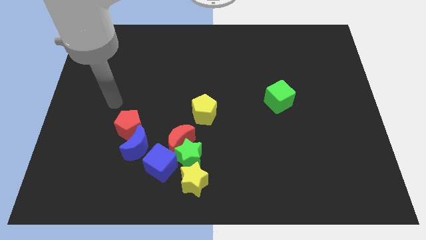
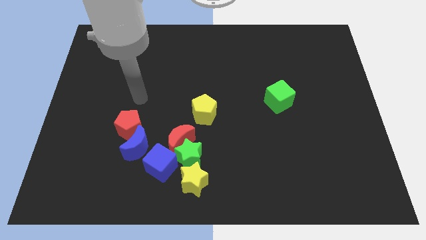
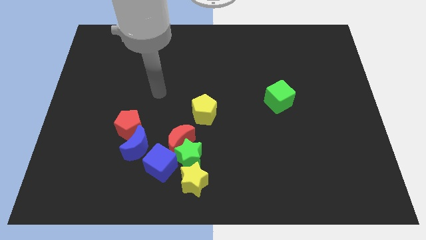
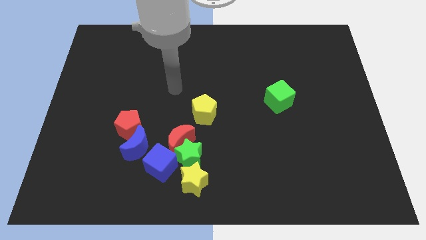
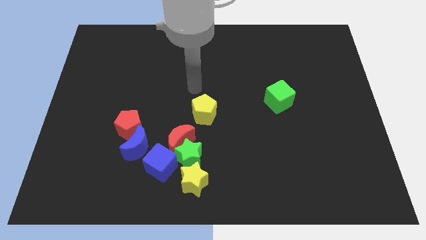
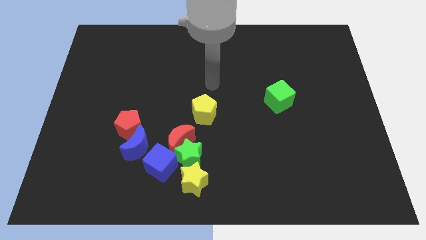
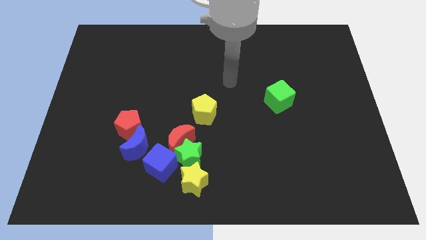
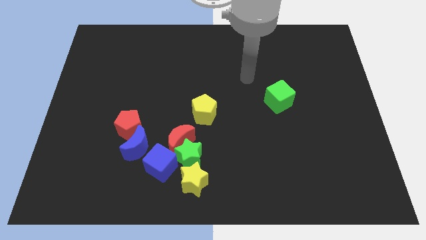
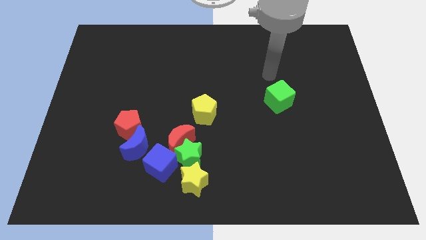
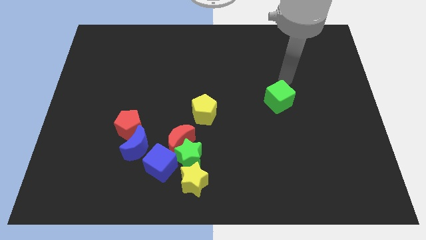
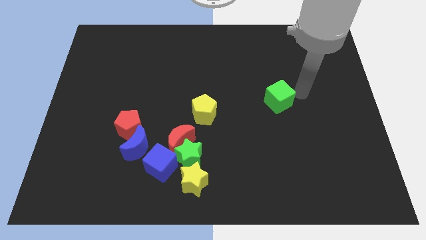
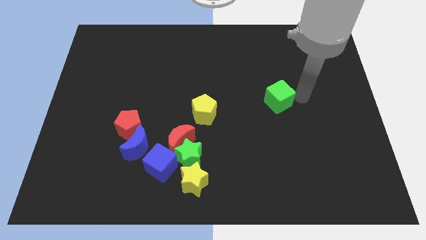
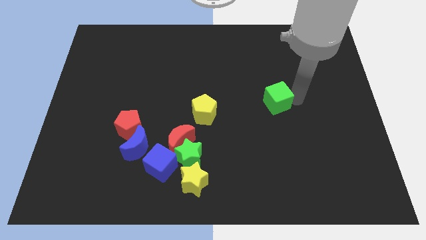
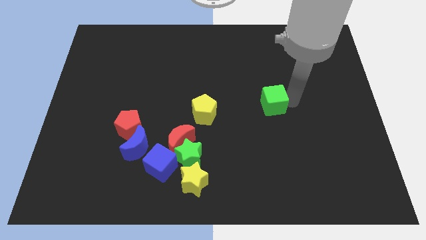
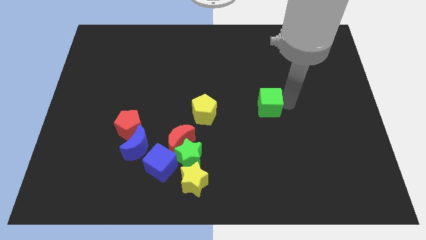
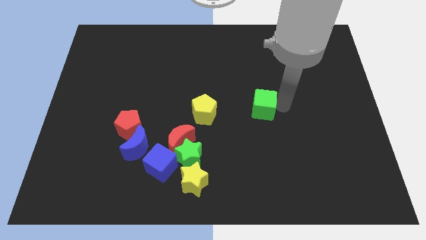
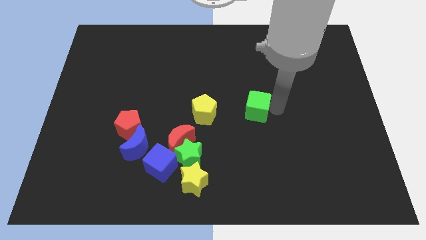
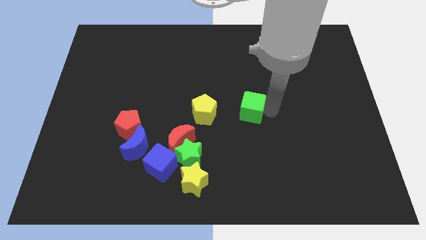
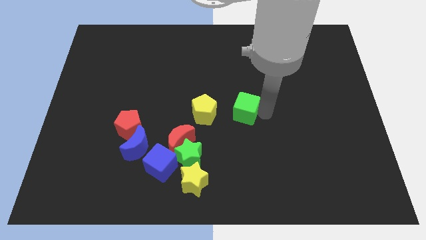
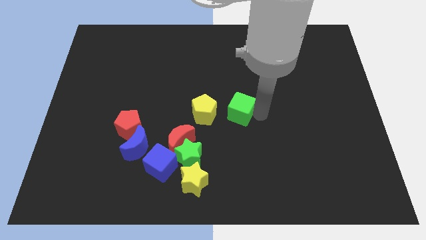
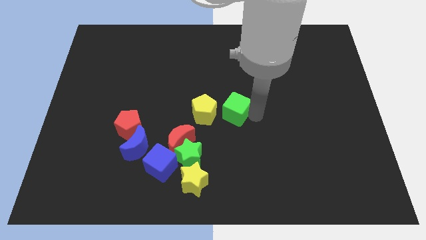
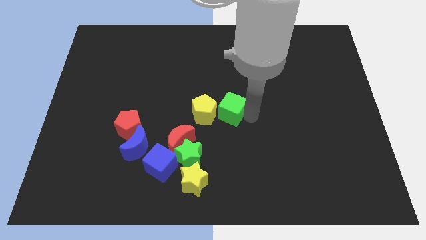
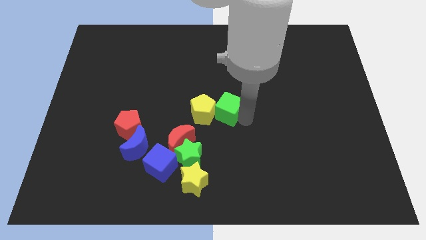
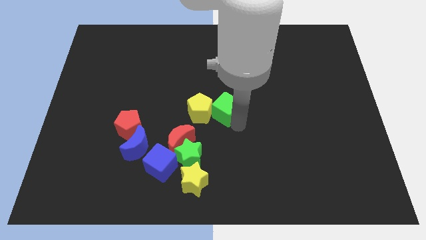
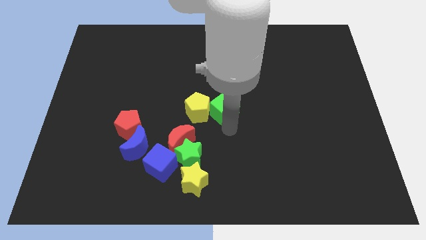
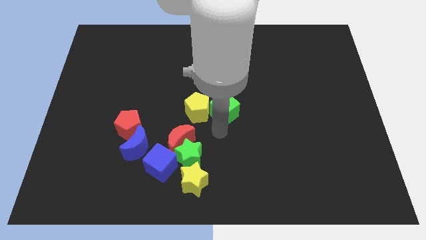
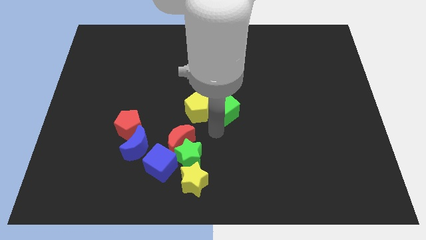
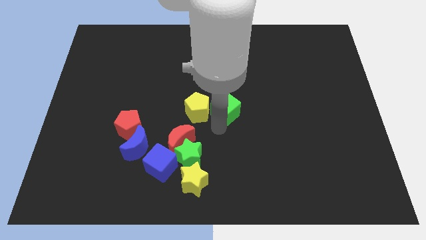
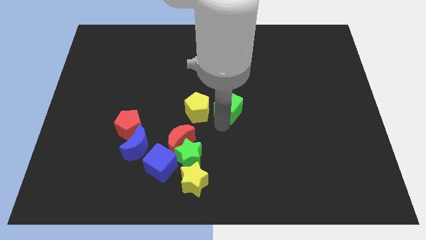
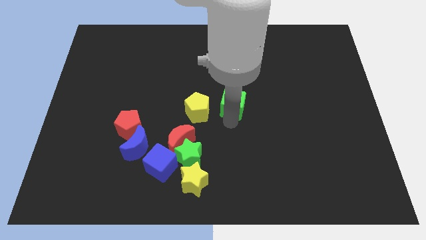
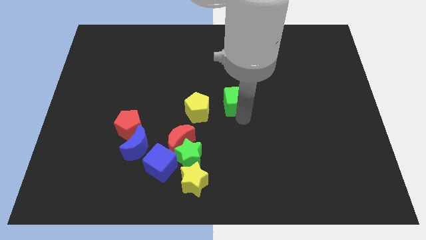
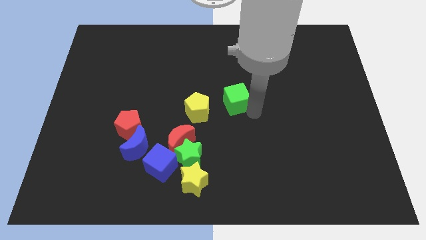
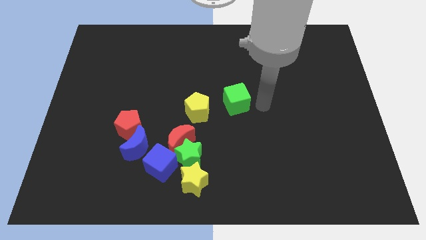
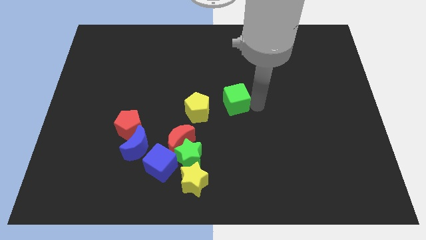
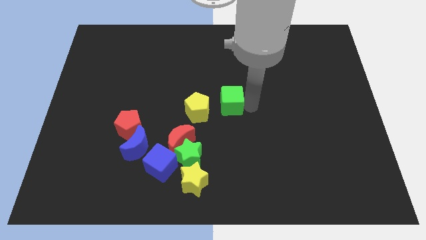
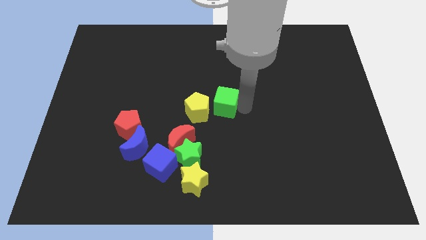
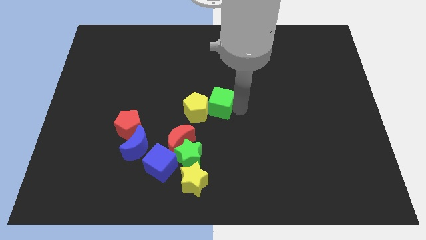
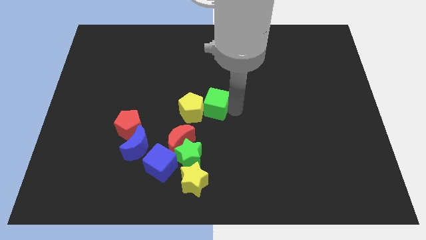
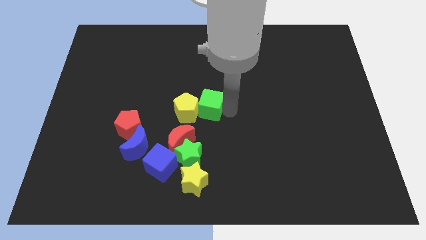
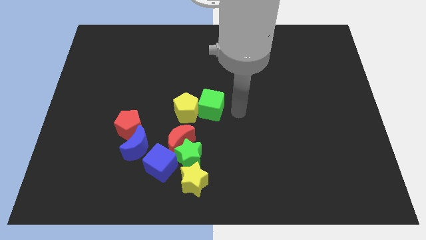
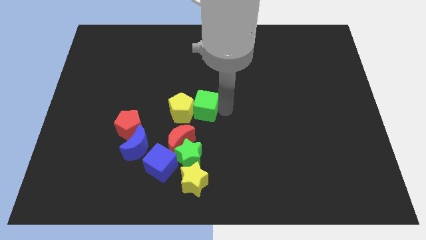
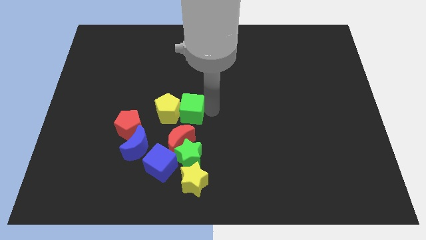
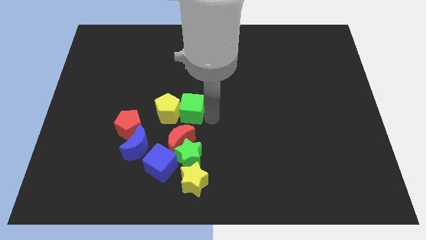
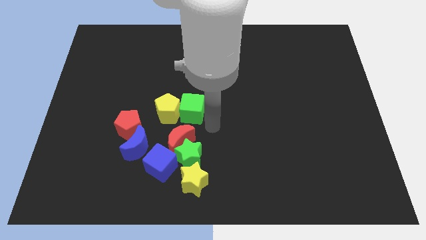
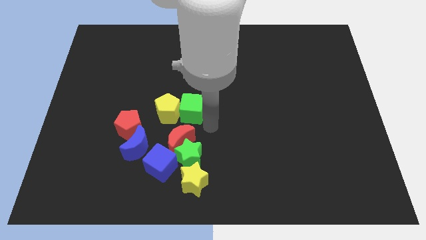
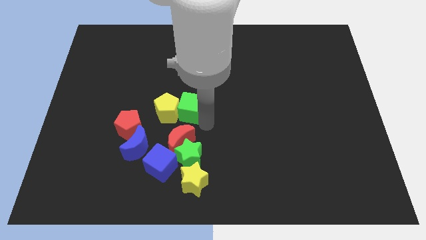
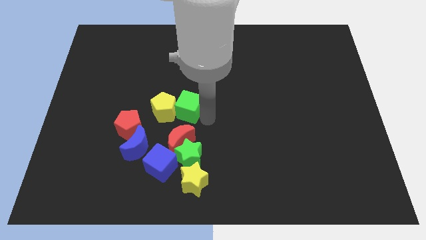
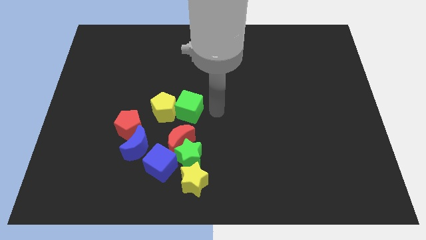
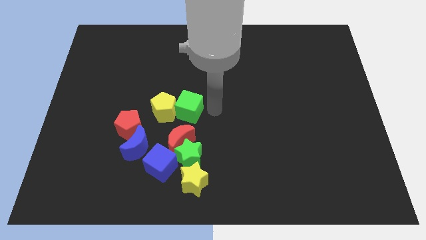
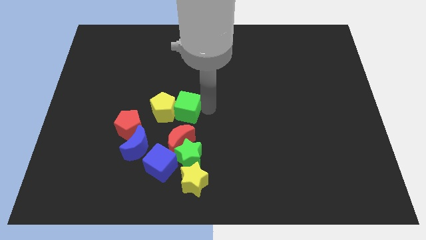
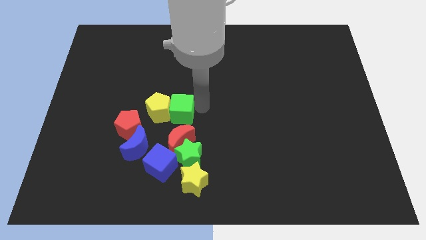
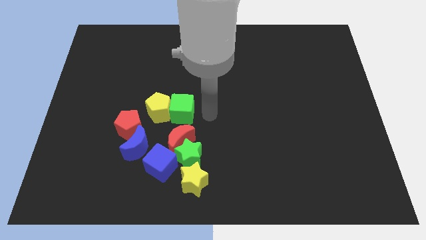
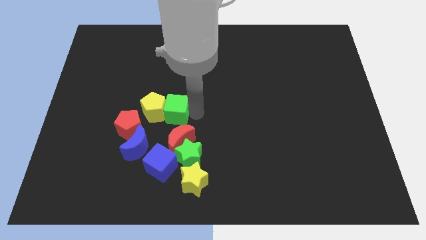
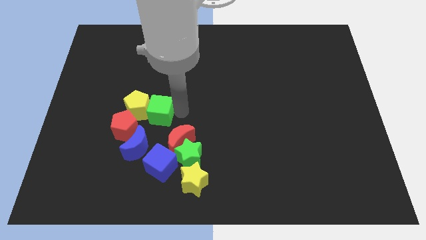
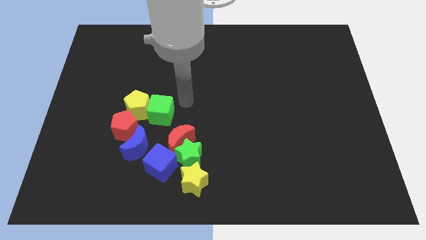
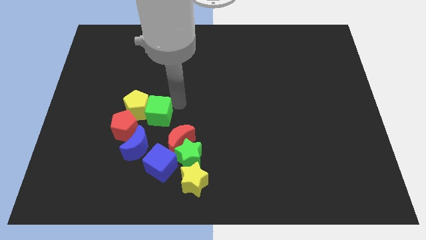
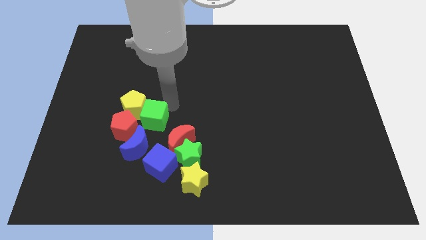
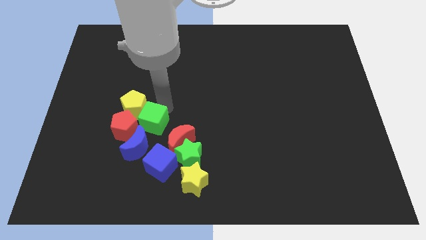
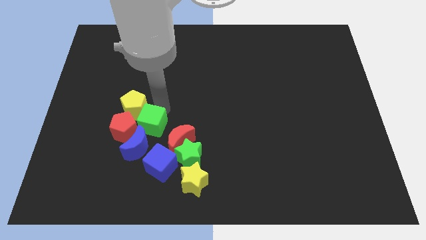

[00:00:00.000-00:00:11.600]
slide the green cube close to the red pentagon

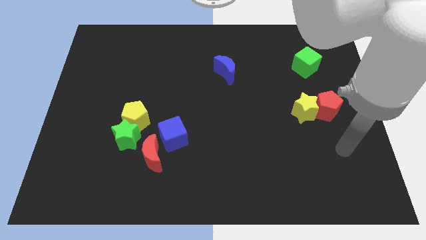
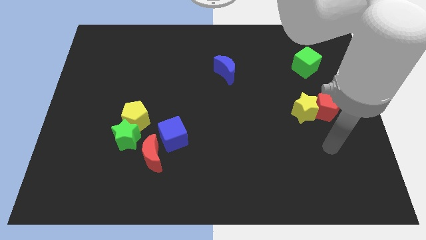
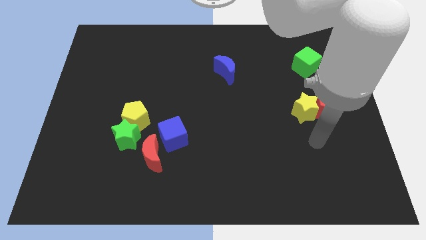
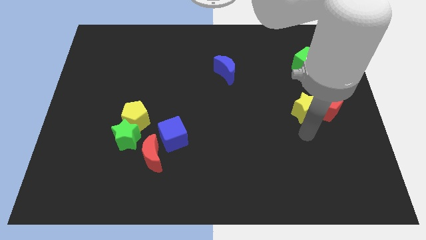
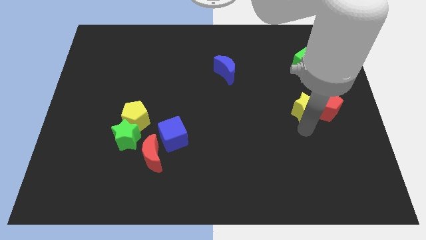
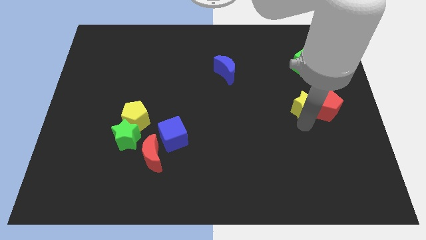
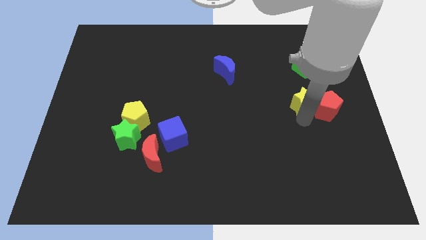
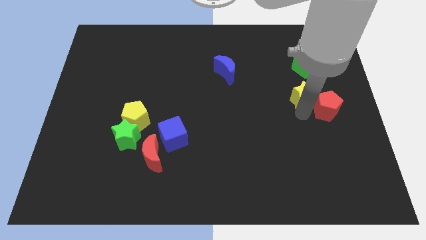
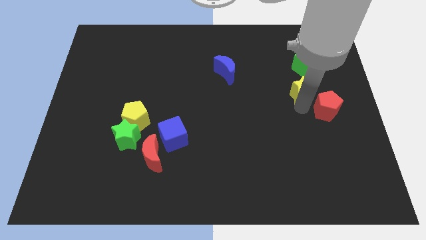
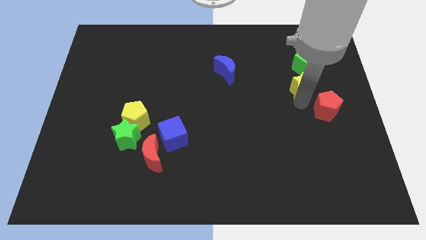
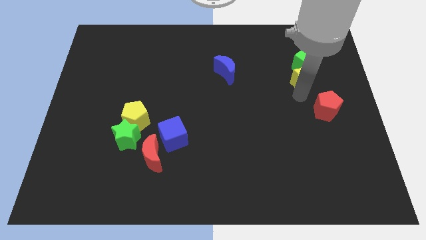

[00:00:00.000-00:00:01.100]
slide the yellow star next to the green cube
